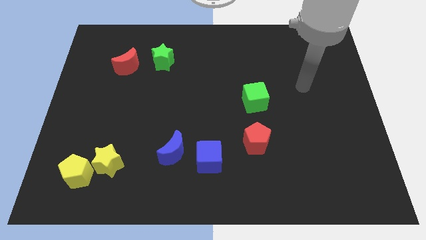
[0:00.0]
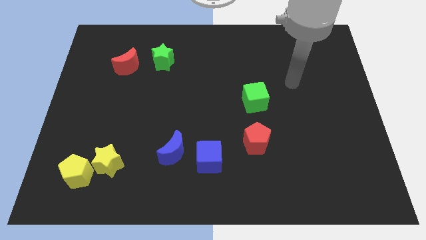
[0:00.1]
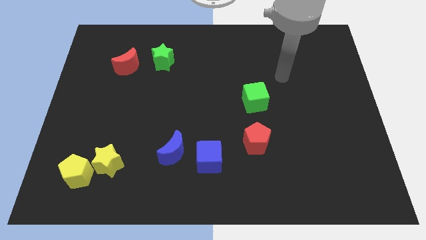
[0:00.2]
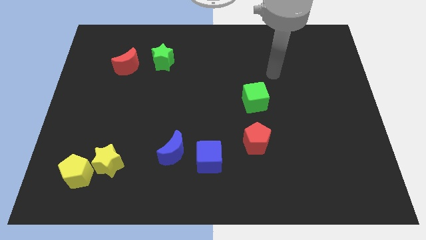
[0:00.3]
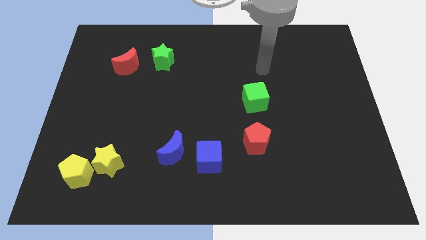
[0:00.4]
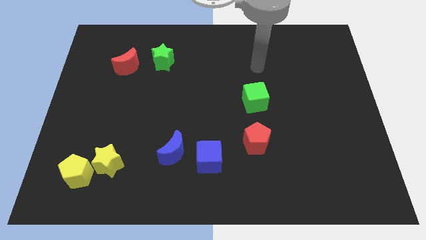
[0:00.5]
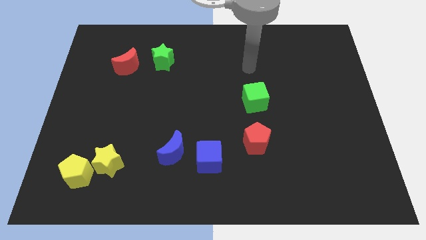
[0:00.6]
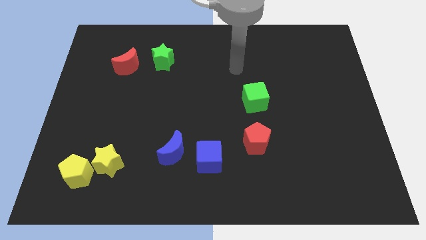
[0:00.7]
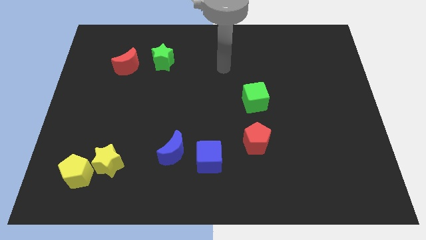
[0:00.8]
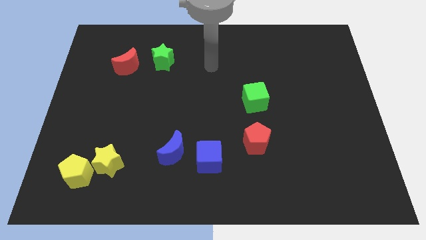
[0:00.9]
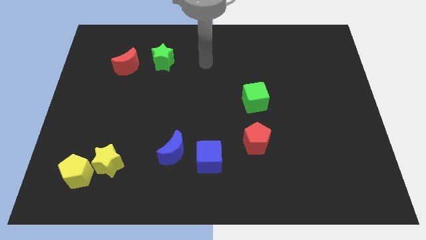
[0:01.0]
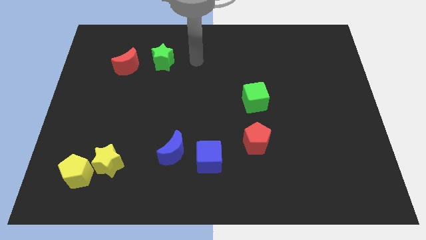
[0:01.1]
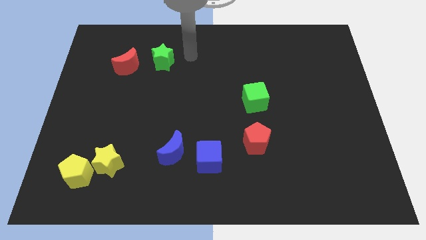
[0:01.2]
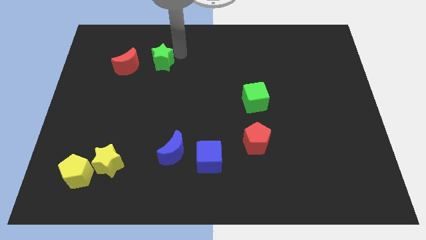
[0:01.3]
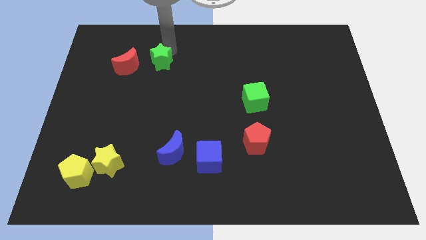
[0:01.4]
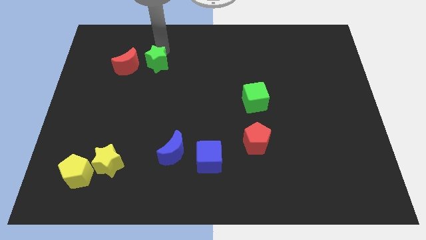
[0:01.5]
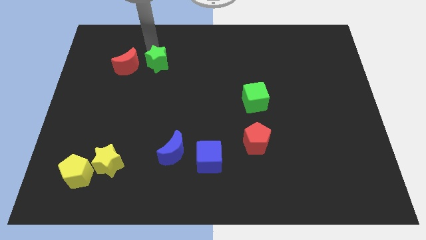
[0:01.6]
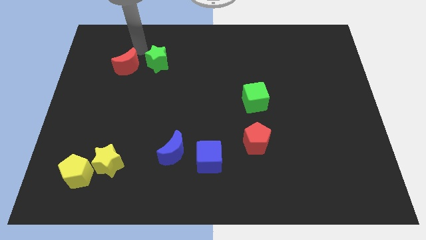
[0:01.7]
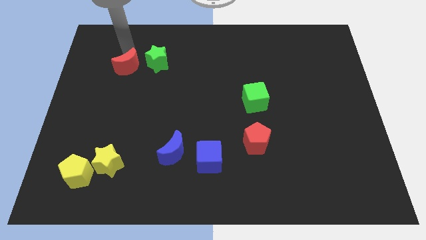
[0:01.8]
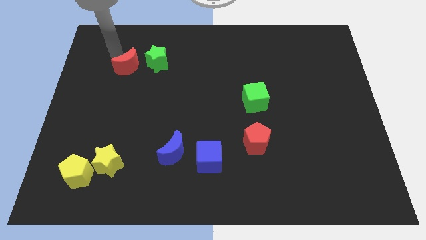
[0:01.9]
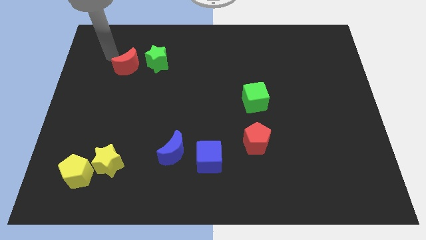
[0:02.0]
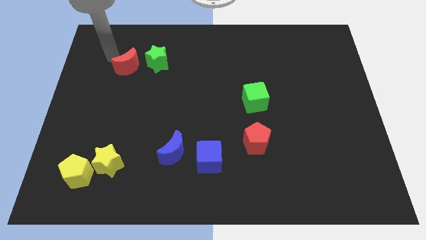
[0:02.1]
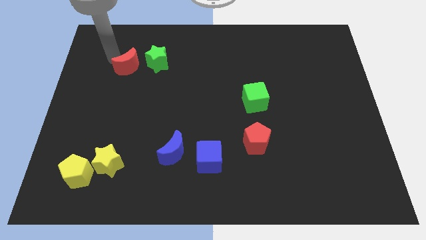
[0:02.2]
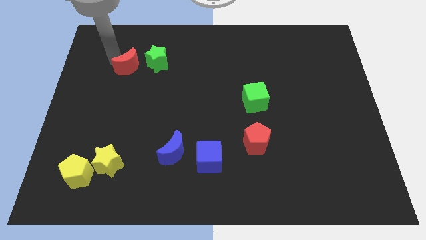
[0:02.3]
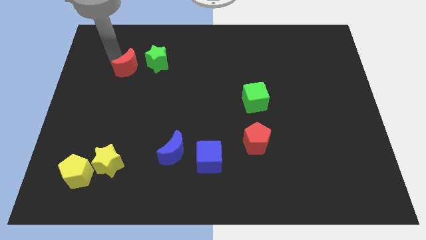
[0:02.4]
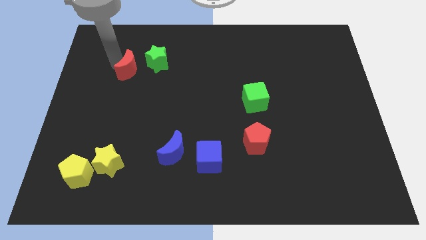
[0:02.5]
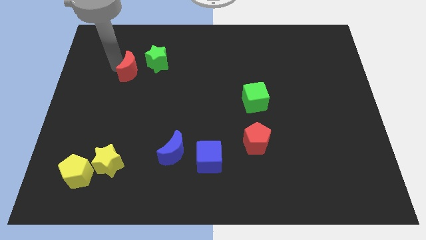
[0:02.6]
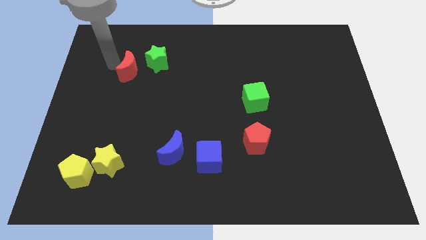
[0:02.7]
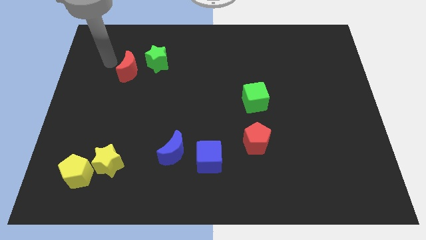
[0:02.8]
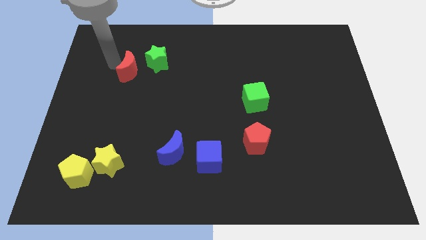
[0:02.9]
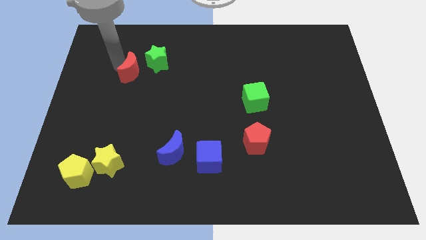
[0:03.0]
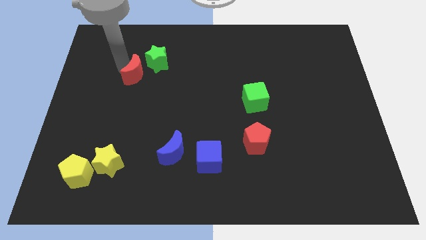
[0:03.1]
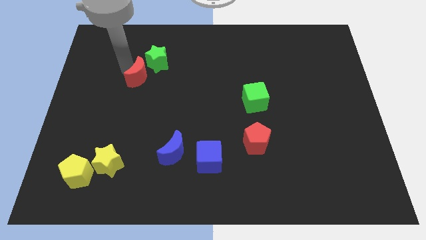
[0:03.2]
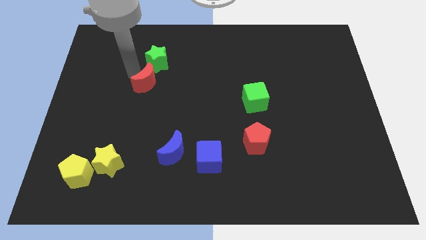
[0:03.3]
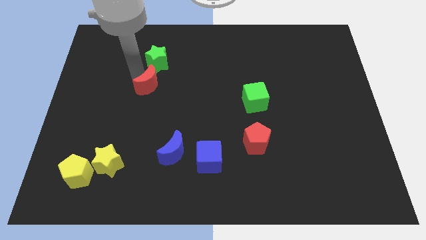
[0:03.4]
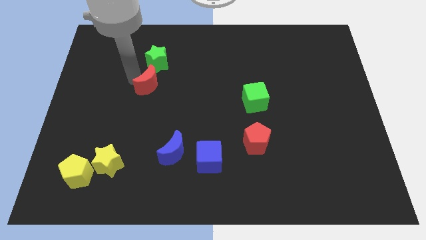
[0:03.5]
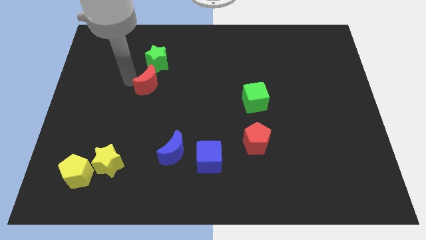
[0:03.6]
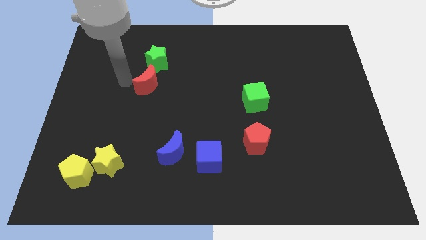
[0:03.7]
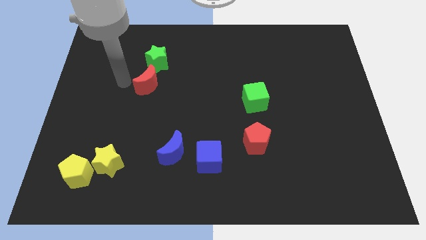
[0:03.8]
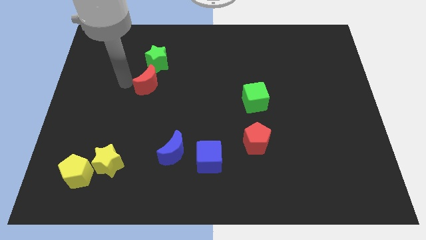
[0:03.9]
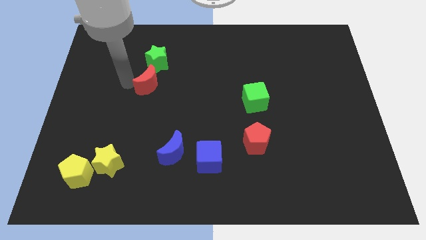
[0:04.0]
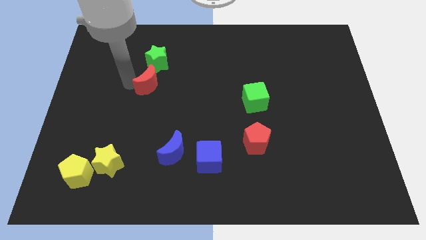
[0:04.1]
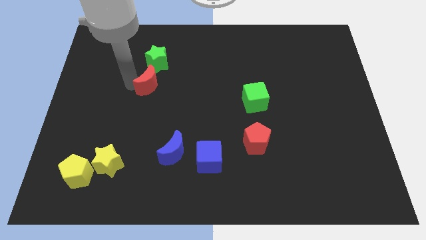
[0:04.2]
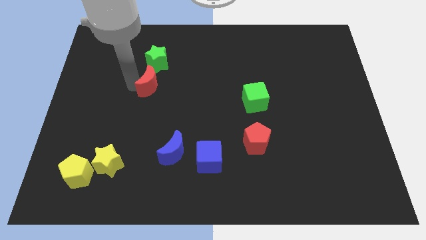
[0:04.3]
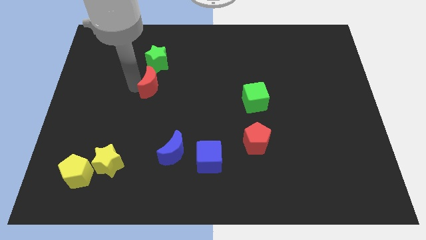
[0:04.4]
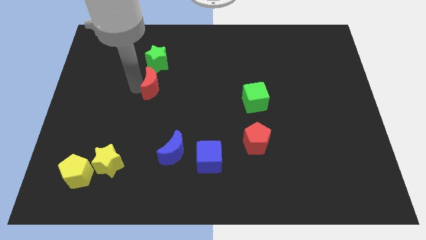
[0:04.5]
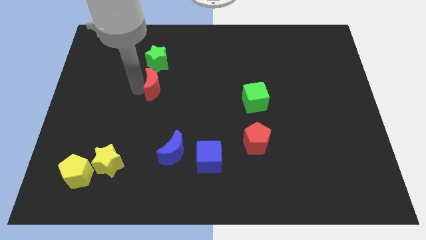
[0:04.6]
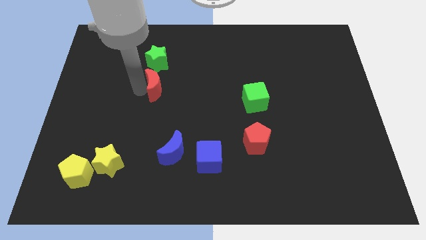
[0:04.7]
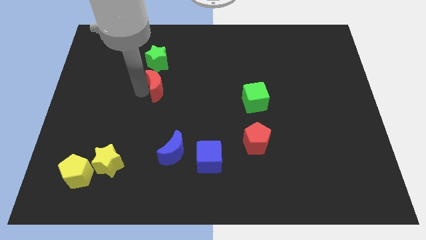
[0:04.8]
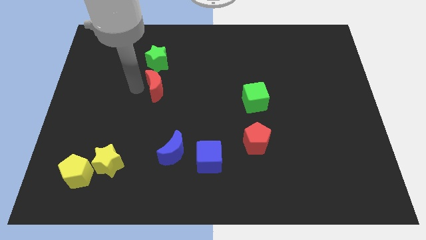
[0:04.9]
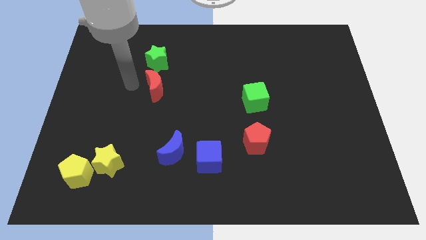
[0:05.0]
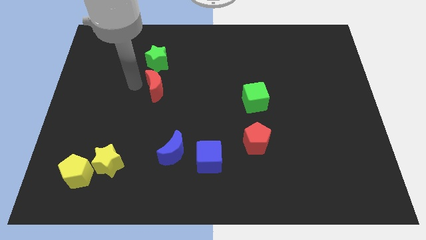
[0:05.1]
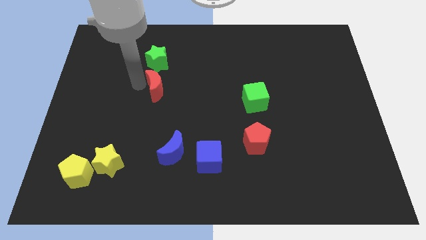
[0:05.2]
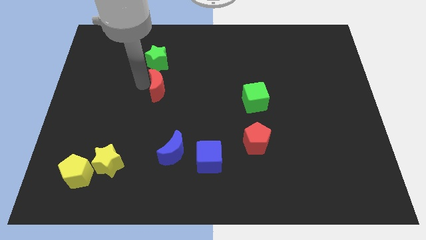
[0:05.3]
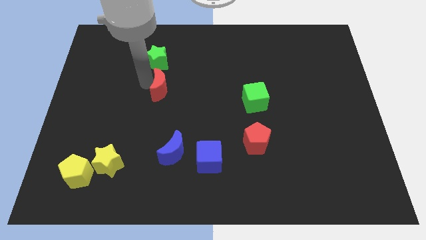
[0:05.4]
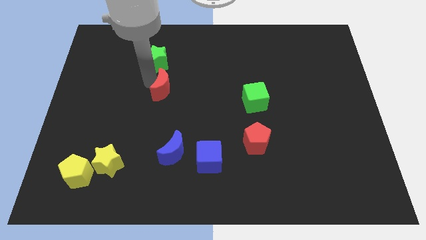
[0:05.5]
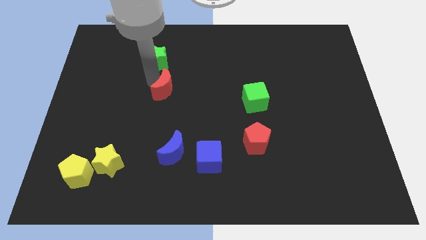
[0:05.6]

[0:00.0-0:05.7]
push the red moon to the middle

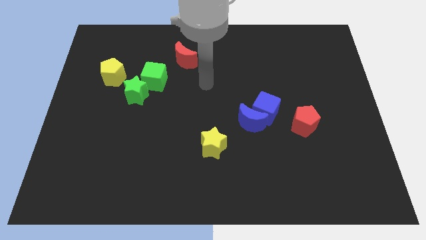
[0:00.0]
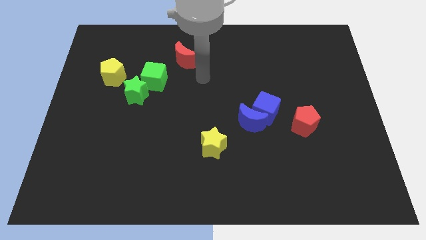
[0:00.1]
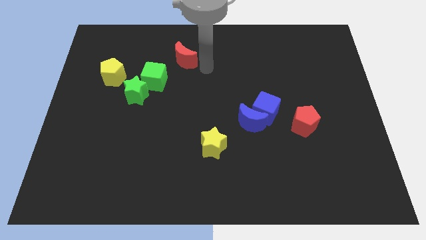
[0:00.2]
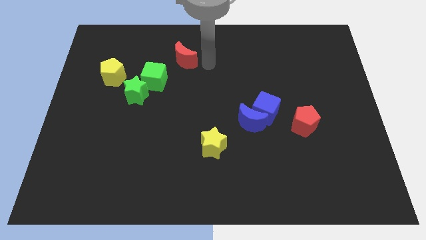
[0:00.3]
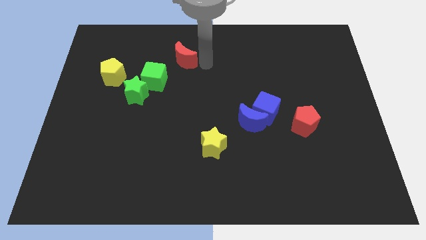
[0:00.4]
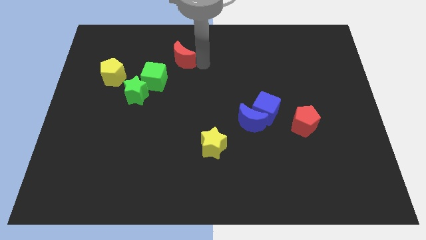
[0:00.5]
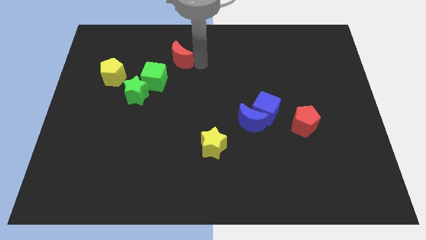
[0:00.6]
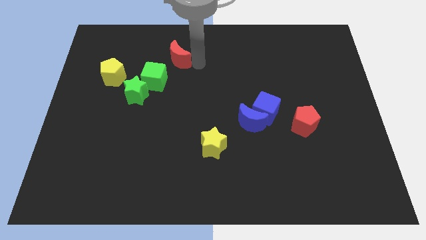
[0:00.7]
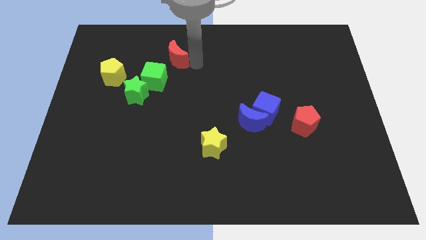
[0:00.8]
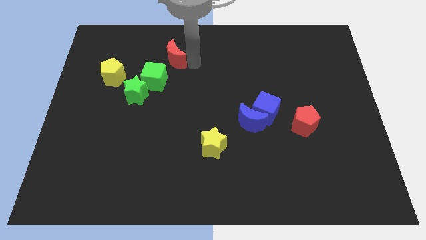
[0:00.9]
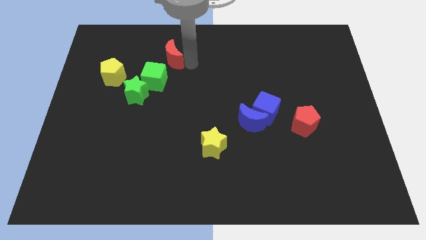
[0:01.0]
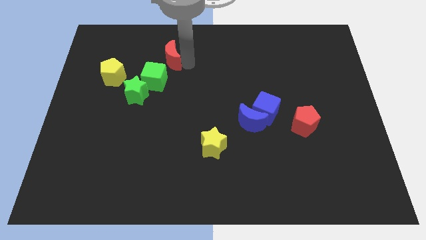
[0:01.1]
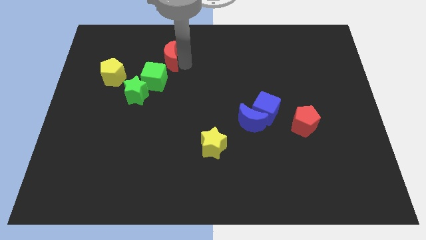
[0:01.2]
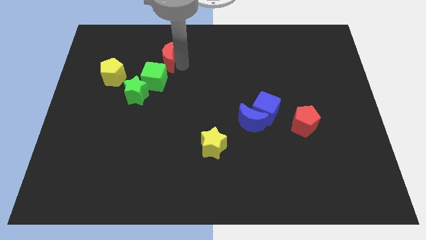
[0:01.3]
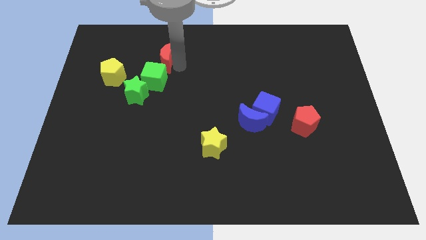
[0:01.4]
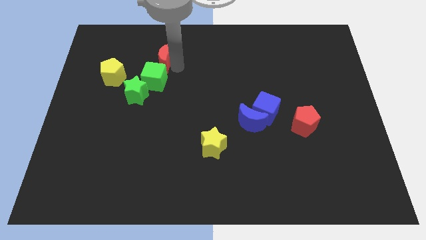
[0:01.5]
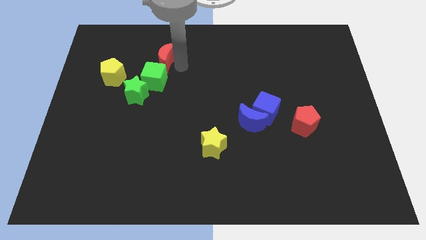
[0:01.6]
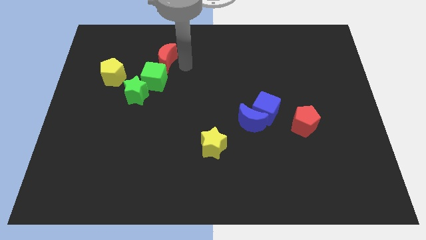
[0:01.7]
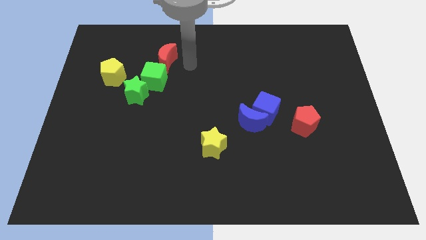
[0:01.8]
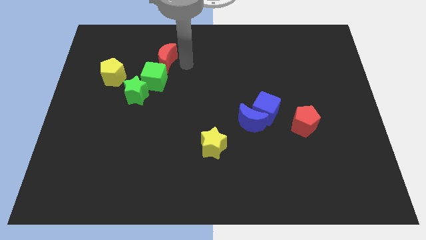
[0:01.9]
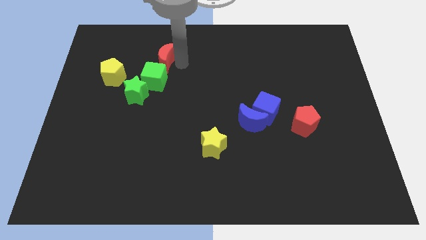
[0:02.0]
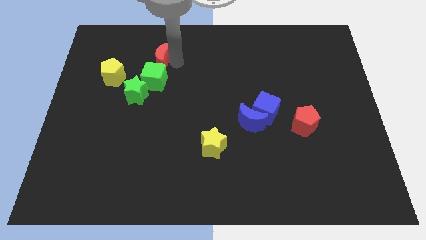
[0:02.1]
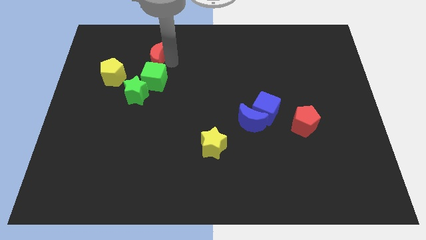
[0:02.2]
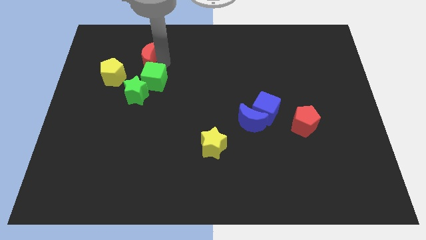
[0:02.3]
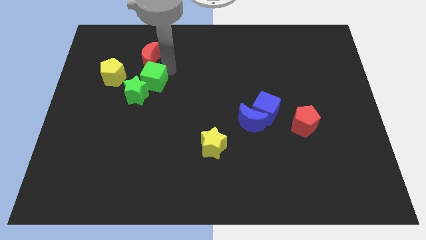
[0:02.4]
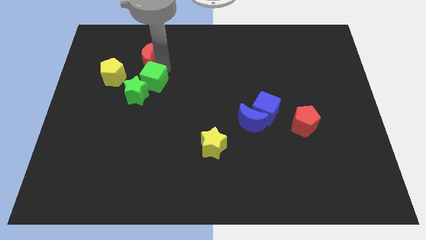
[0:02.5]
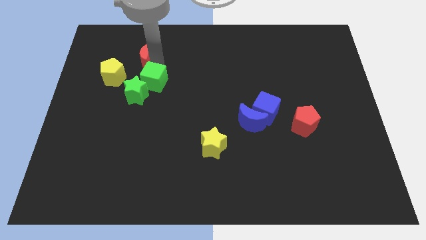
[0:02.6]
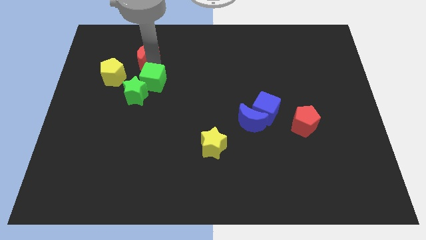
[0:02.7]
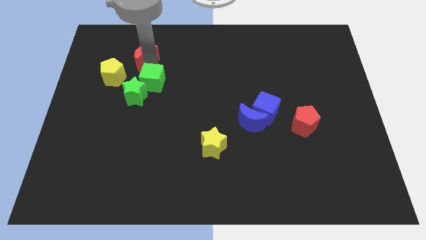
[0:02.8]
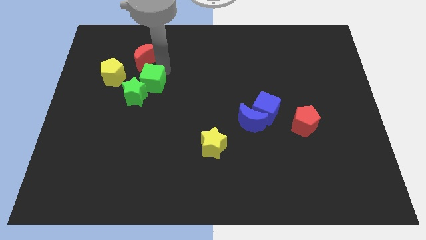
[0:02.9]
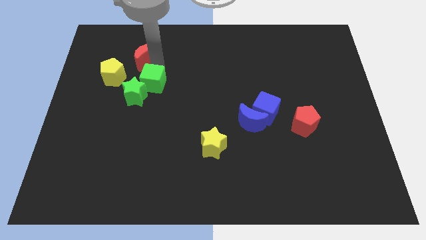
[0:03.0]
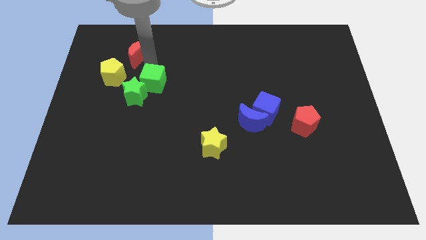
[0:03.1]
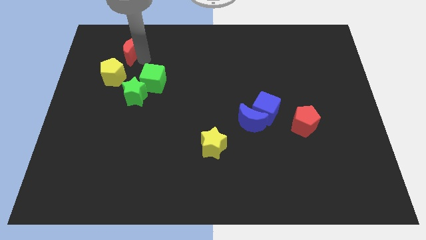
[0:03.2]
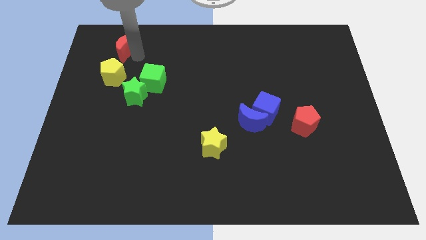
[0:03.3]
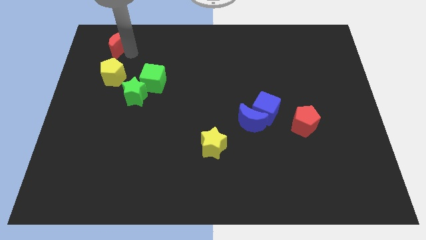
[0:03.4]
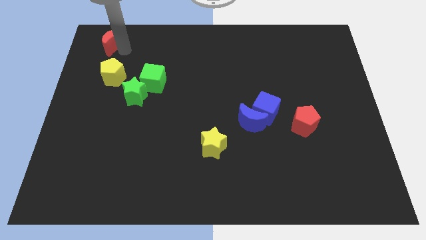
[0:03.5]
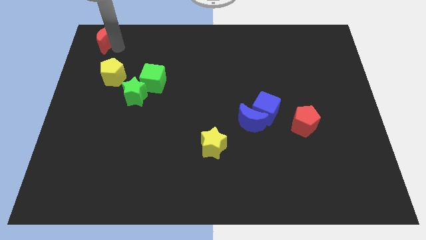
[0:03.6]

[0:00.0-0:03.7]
slide the red moon to the top left
